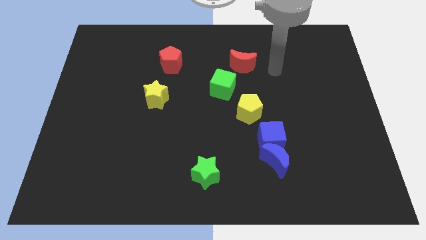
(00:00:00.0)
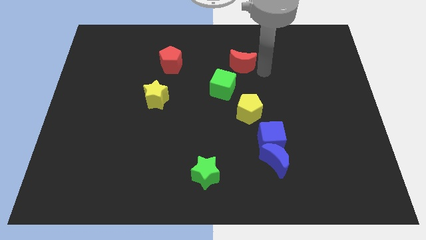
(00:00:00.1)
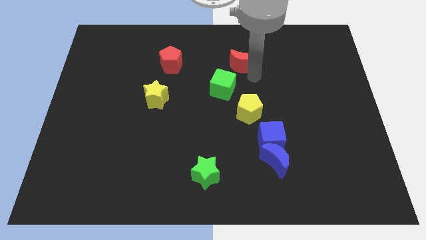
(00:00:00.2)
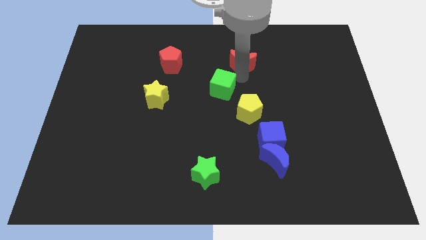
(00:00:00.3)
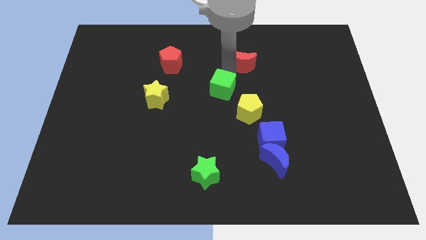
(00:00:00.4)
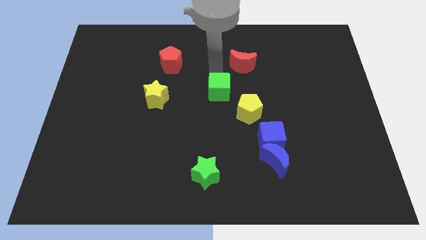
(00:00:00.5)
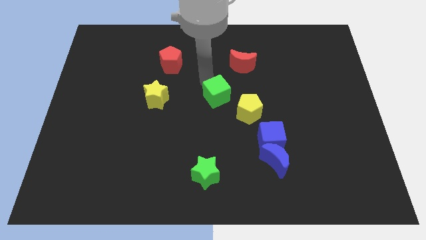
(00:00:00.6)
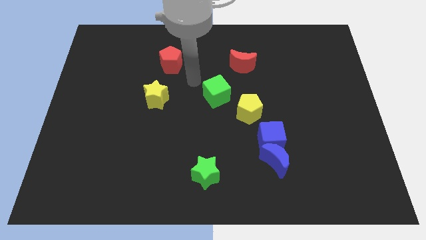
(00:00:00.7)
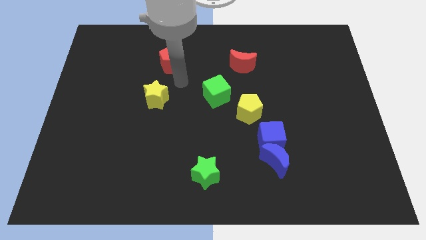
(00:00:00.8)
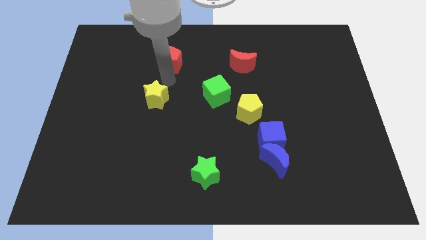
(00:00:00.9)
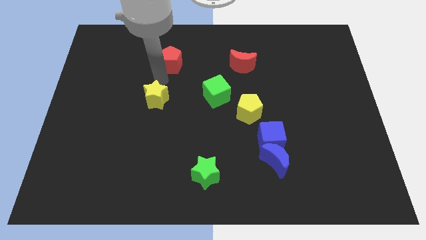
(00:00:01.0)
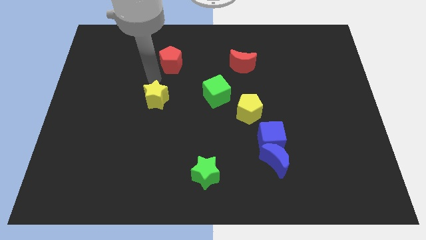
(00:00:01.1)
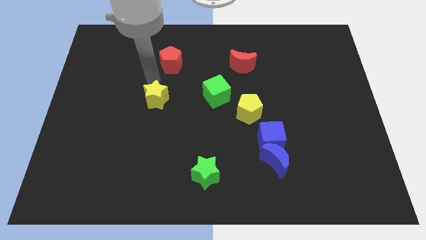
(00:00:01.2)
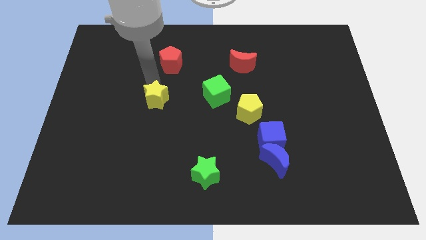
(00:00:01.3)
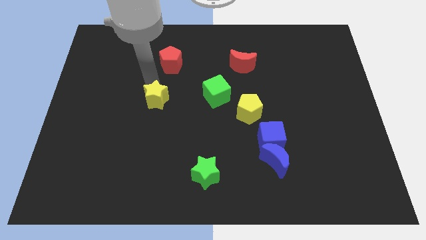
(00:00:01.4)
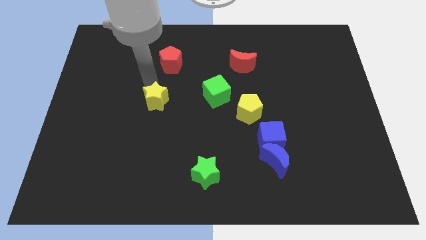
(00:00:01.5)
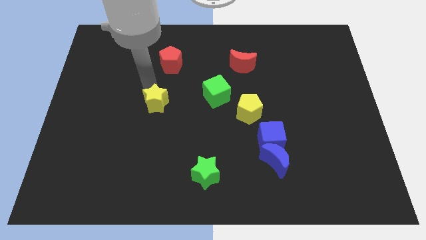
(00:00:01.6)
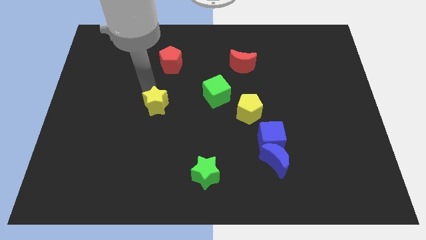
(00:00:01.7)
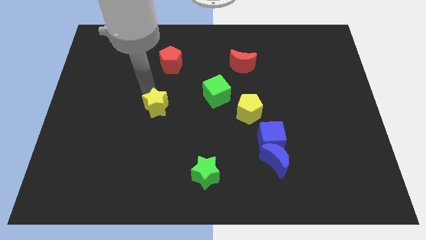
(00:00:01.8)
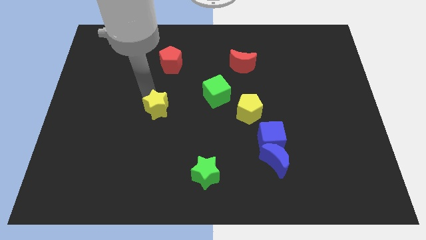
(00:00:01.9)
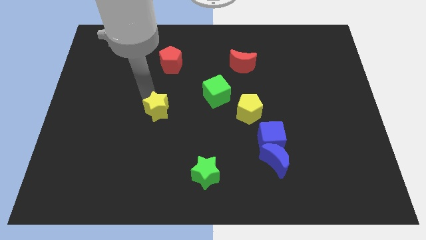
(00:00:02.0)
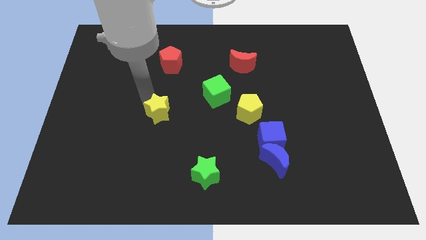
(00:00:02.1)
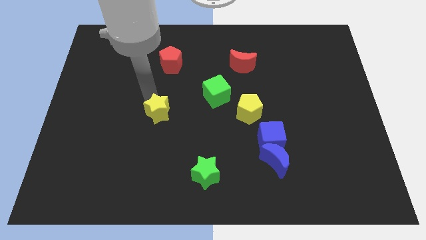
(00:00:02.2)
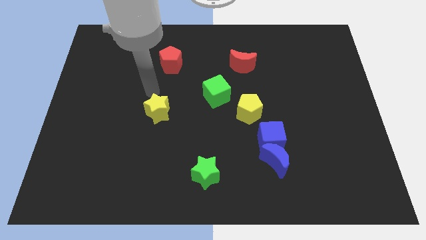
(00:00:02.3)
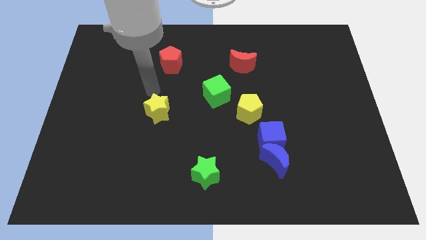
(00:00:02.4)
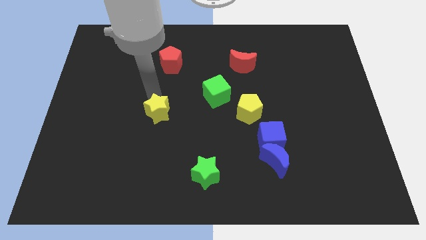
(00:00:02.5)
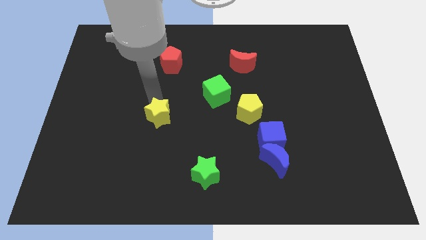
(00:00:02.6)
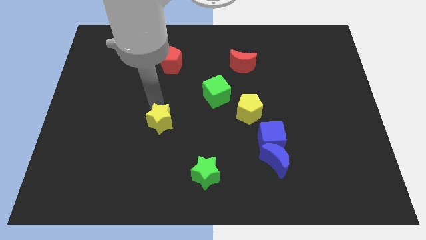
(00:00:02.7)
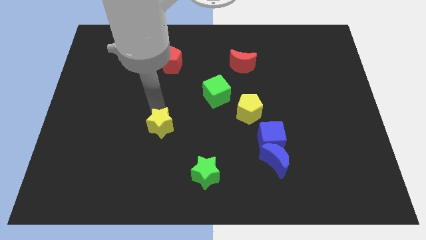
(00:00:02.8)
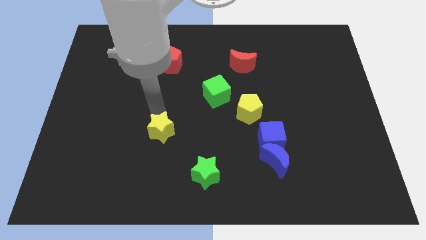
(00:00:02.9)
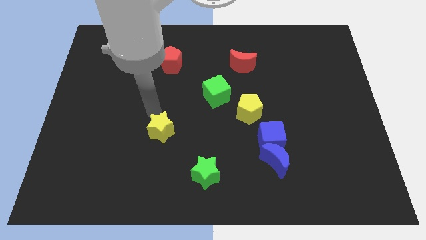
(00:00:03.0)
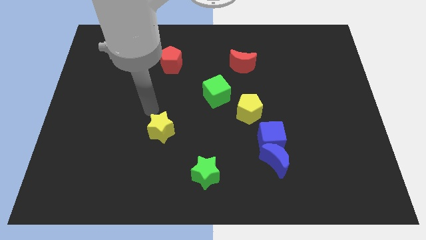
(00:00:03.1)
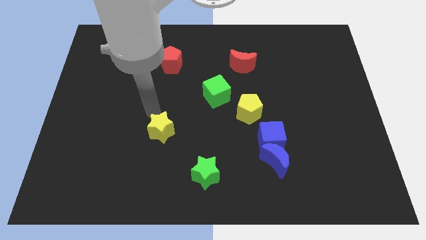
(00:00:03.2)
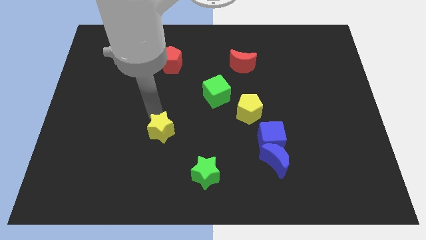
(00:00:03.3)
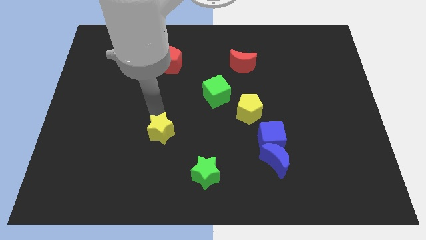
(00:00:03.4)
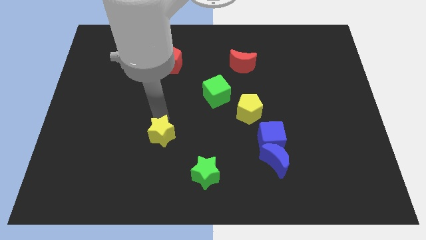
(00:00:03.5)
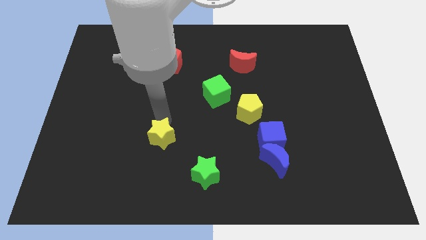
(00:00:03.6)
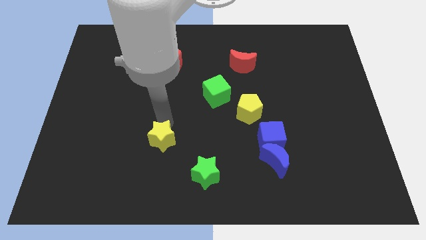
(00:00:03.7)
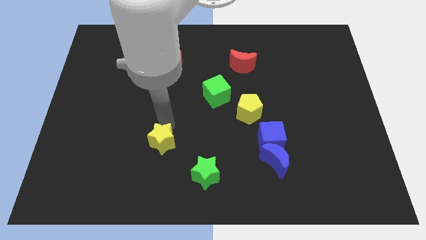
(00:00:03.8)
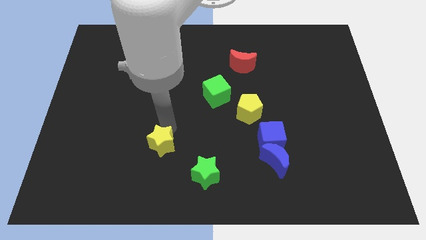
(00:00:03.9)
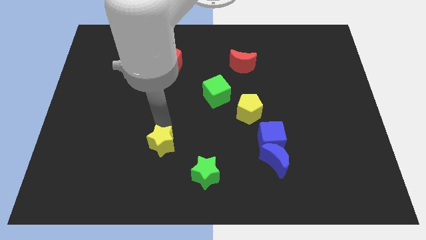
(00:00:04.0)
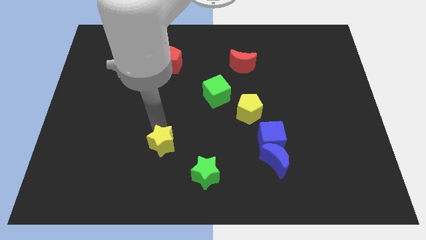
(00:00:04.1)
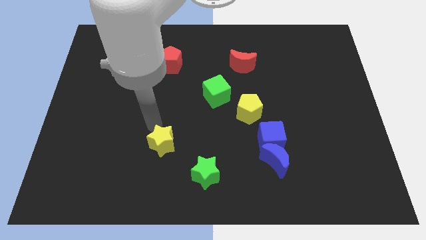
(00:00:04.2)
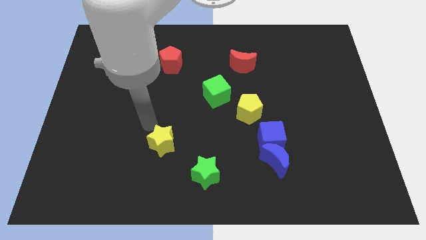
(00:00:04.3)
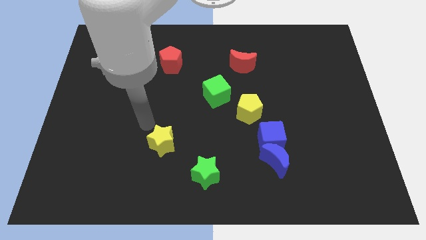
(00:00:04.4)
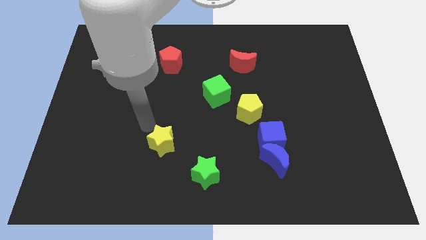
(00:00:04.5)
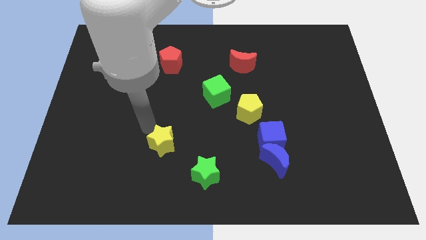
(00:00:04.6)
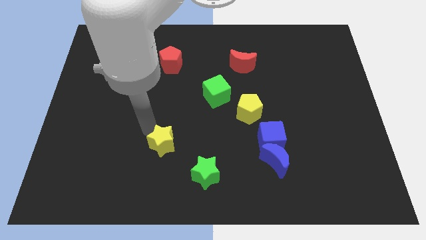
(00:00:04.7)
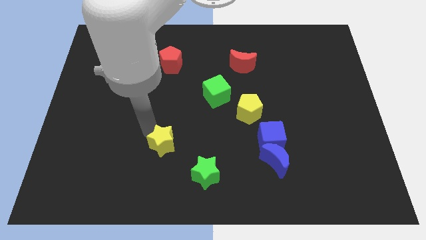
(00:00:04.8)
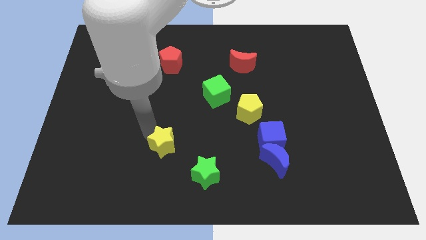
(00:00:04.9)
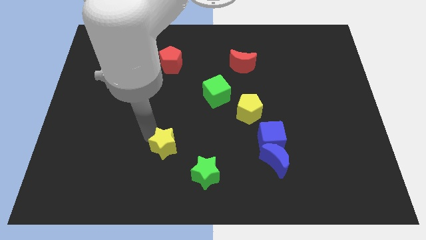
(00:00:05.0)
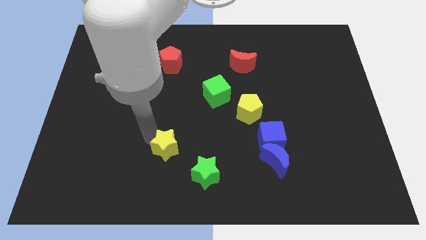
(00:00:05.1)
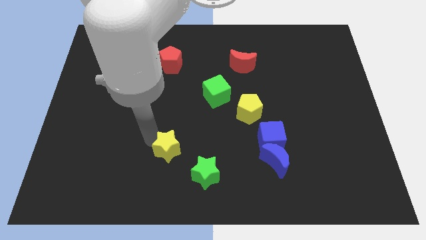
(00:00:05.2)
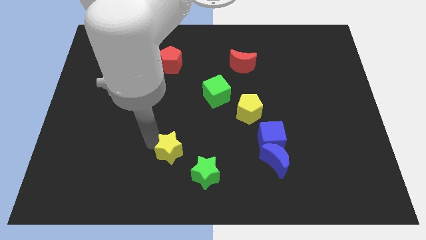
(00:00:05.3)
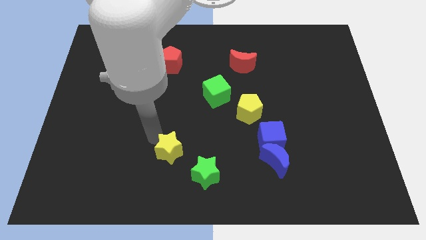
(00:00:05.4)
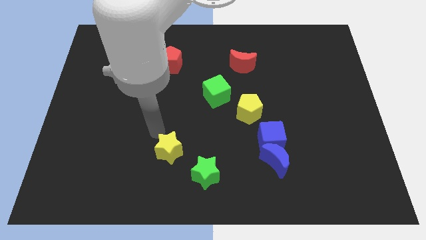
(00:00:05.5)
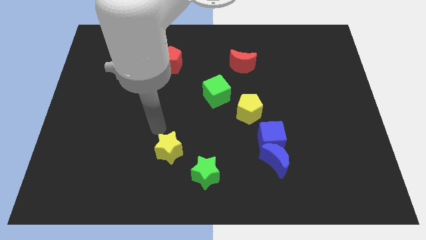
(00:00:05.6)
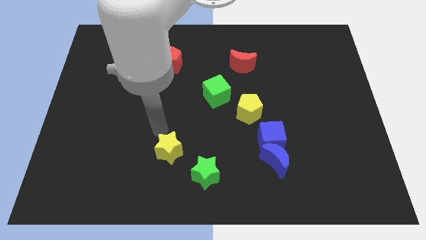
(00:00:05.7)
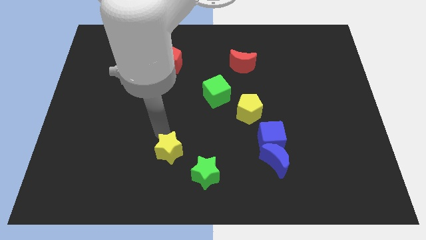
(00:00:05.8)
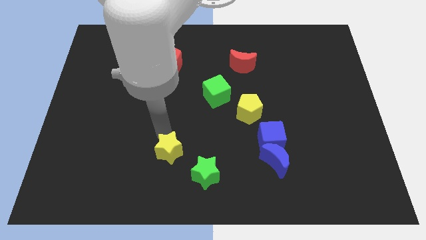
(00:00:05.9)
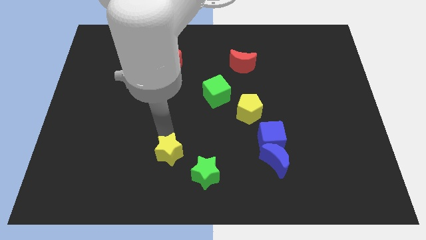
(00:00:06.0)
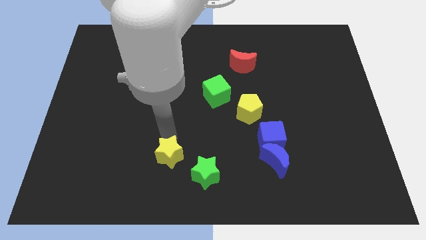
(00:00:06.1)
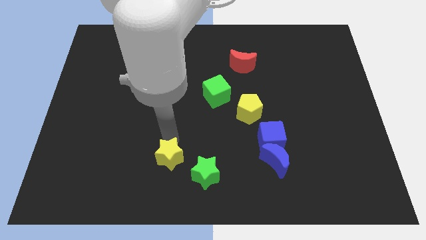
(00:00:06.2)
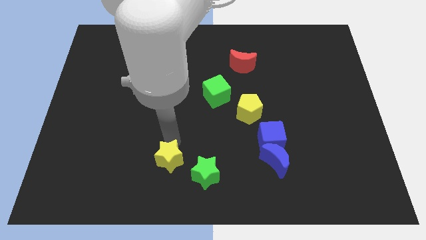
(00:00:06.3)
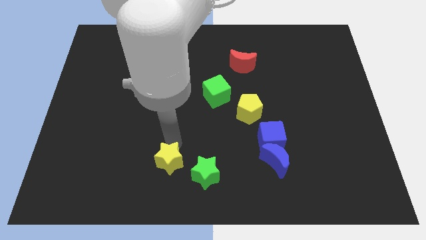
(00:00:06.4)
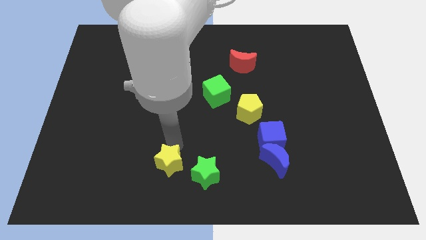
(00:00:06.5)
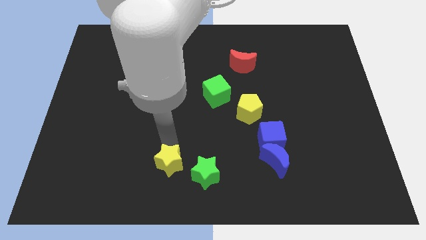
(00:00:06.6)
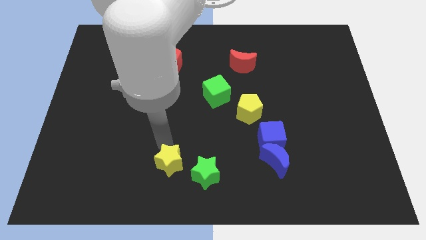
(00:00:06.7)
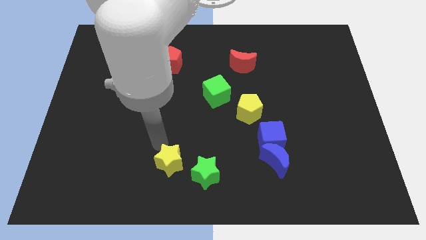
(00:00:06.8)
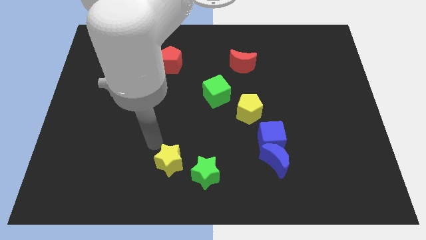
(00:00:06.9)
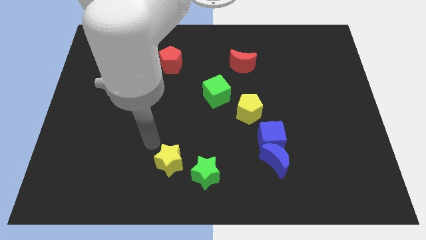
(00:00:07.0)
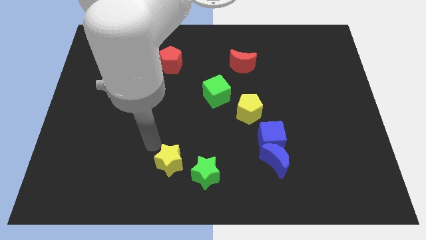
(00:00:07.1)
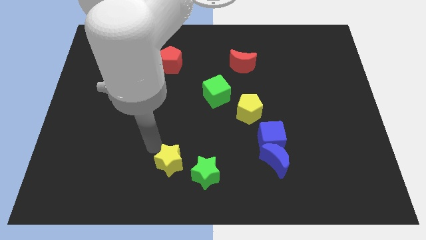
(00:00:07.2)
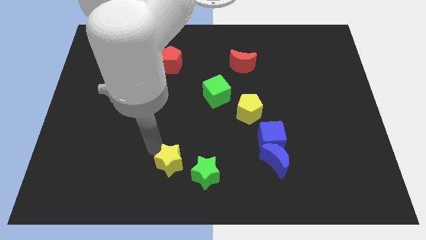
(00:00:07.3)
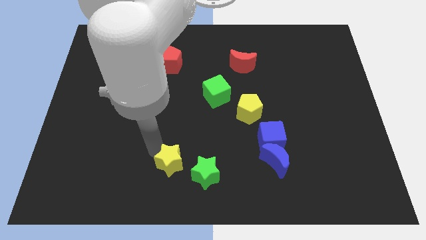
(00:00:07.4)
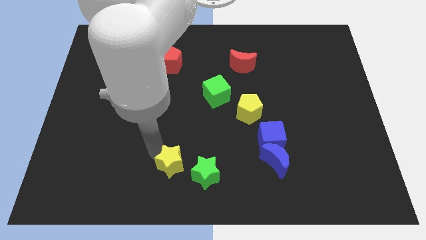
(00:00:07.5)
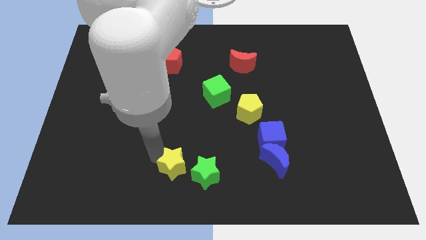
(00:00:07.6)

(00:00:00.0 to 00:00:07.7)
move the yellow star to the bottom side
